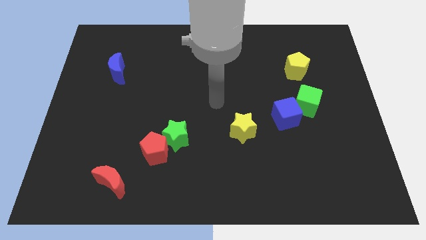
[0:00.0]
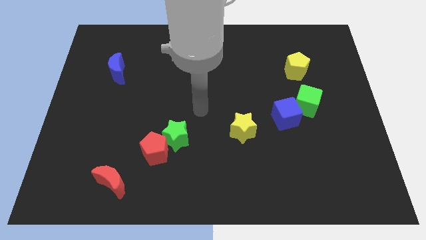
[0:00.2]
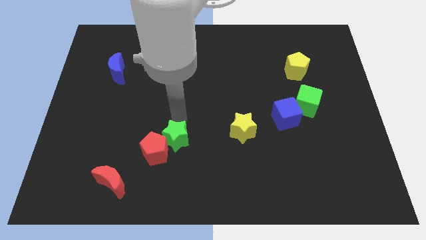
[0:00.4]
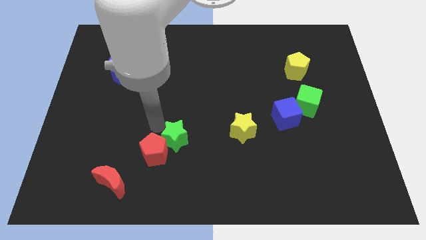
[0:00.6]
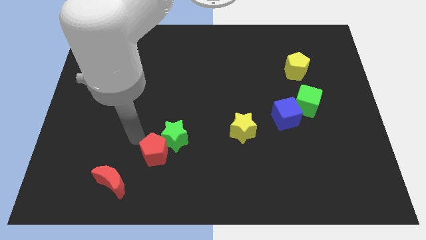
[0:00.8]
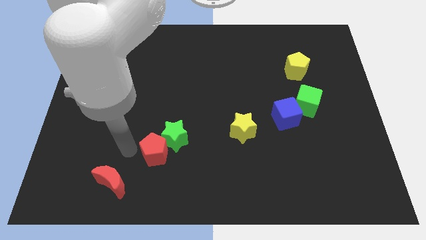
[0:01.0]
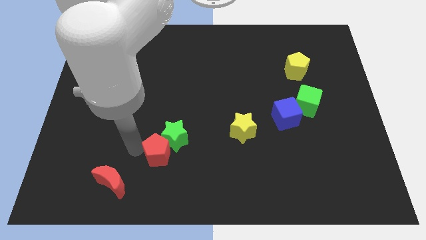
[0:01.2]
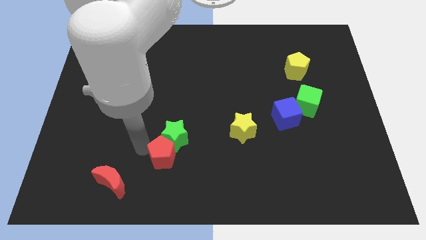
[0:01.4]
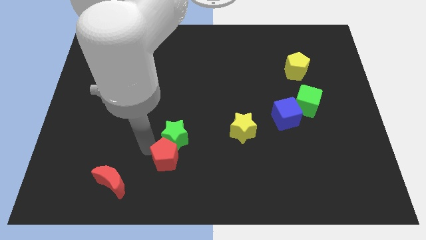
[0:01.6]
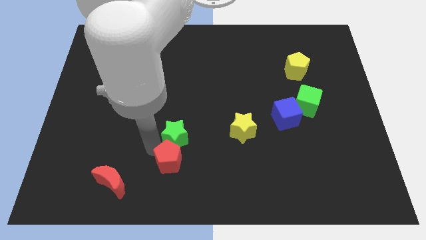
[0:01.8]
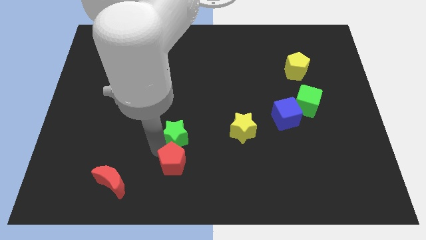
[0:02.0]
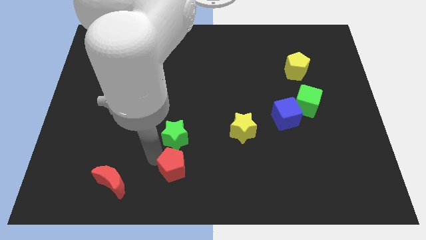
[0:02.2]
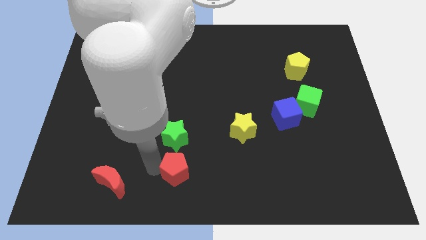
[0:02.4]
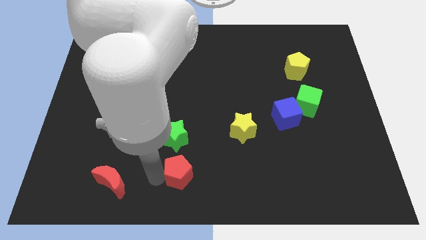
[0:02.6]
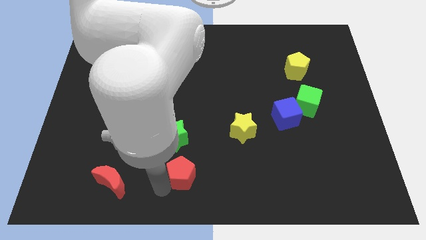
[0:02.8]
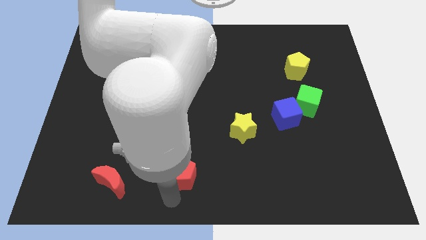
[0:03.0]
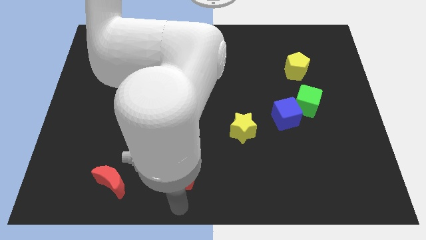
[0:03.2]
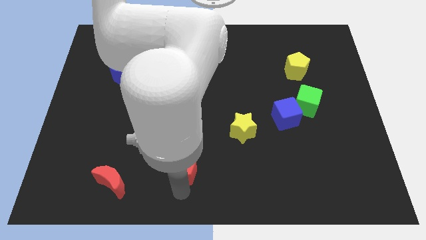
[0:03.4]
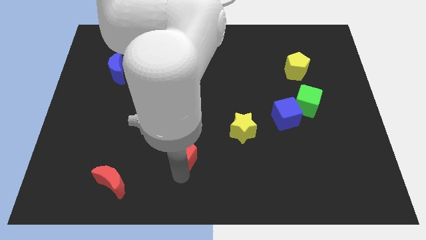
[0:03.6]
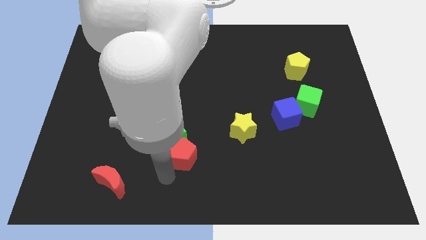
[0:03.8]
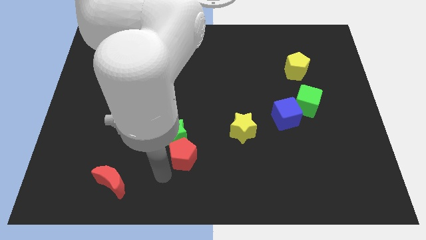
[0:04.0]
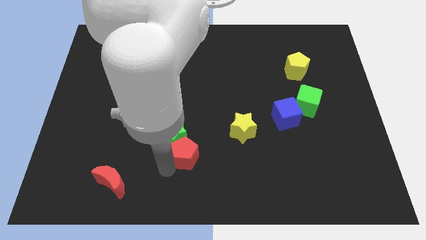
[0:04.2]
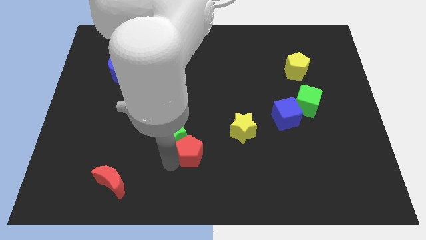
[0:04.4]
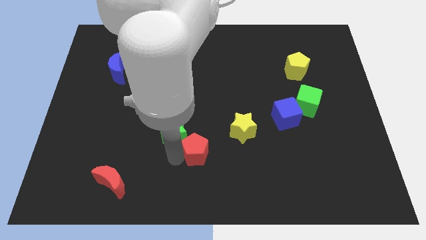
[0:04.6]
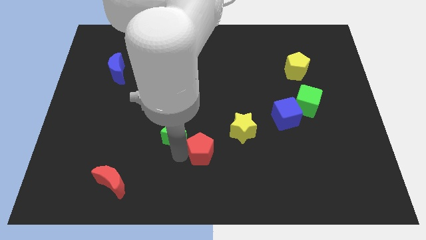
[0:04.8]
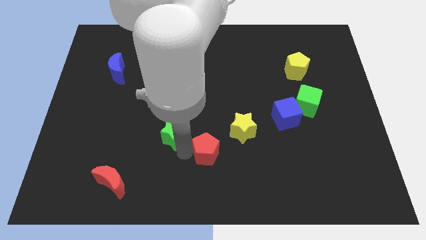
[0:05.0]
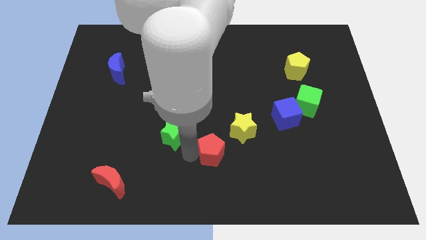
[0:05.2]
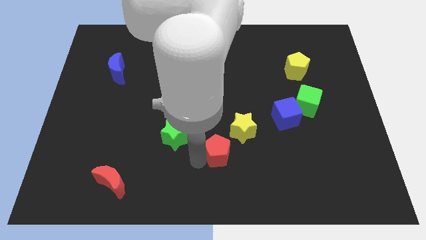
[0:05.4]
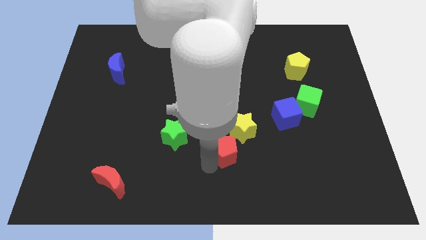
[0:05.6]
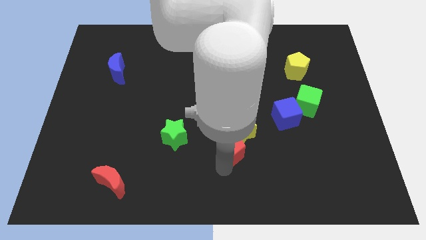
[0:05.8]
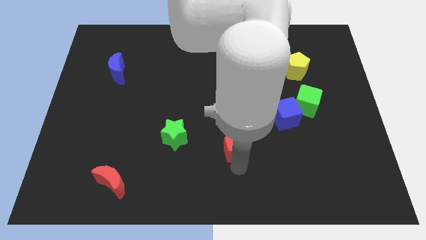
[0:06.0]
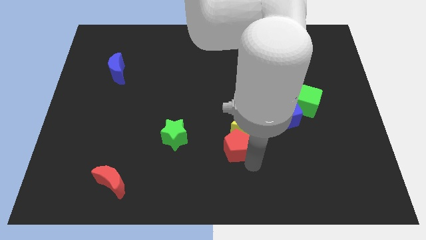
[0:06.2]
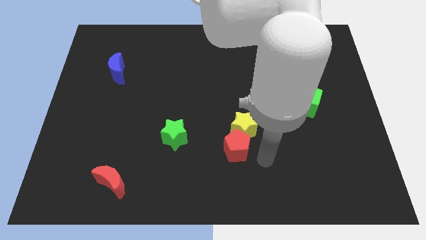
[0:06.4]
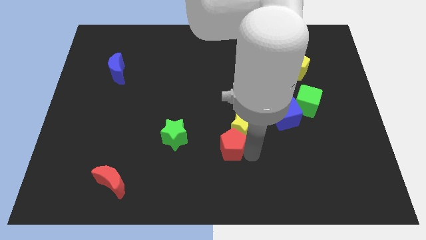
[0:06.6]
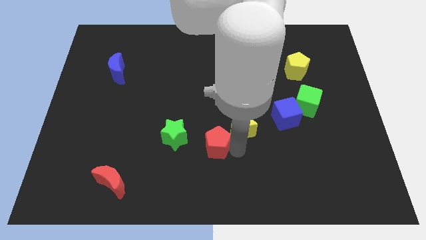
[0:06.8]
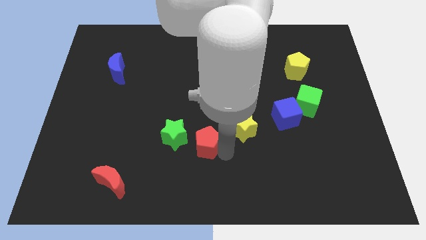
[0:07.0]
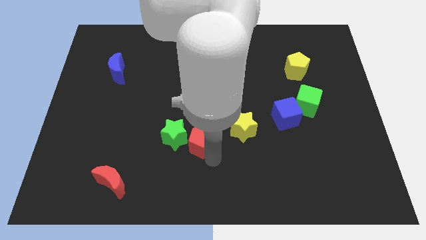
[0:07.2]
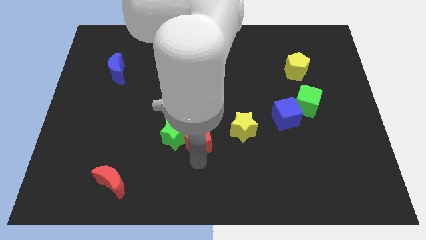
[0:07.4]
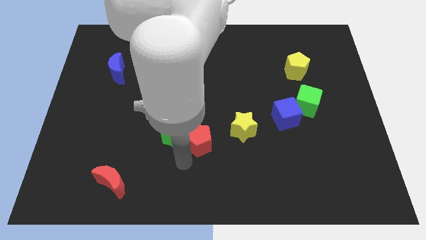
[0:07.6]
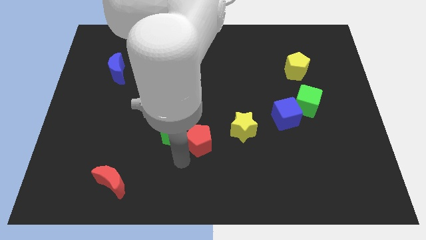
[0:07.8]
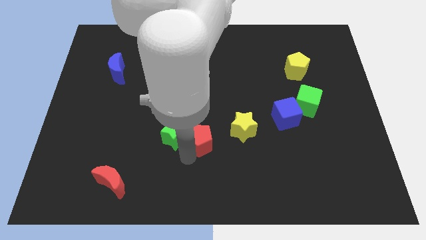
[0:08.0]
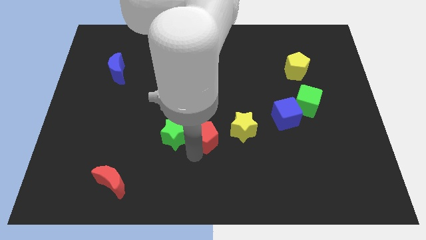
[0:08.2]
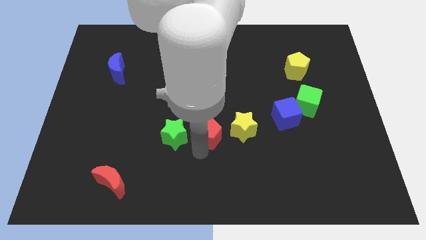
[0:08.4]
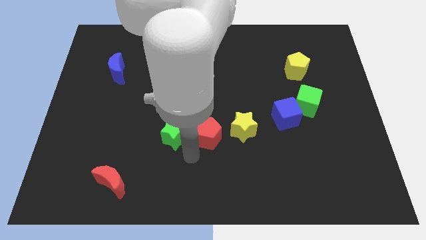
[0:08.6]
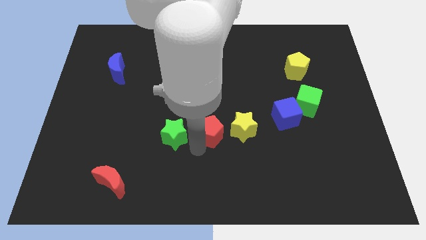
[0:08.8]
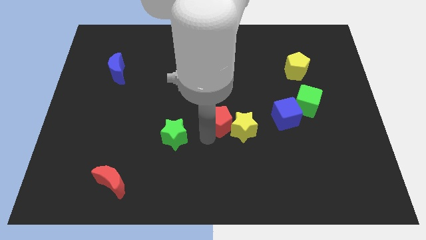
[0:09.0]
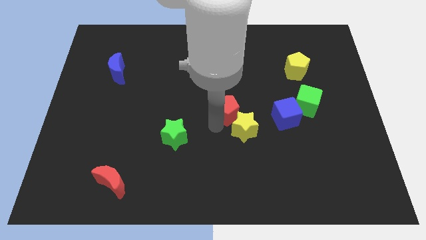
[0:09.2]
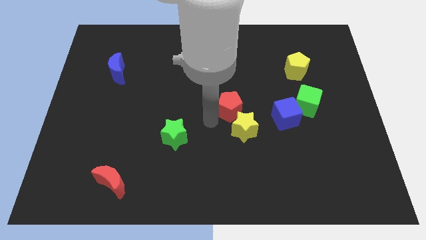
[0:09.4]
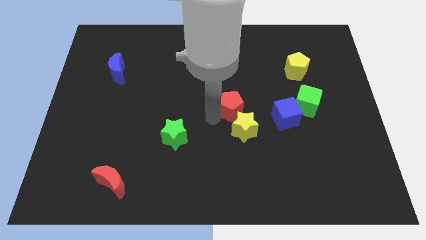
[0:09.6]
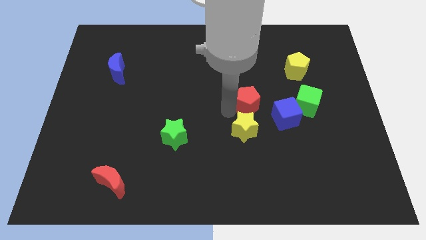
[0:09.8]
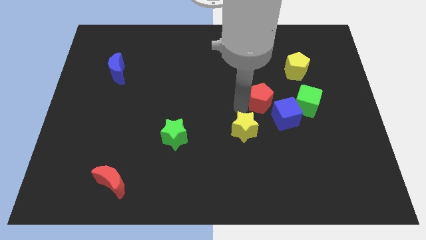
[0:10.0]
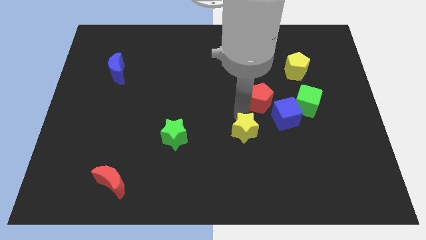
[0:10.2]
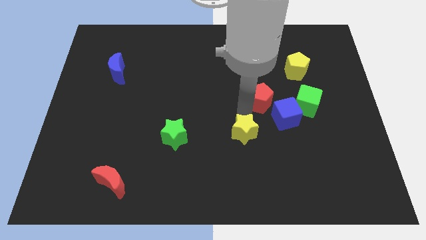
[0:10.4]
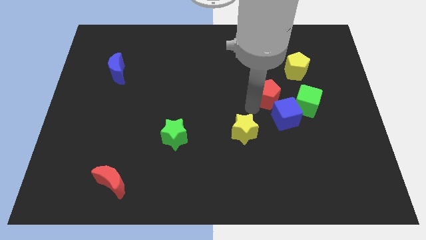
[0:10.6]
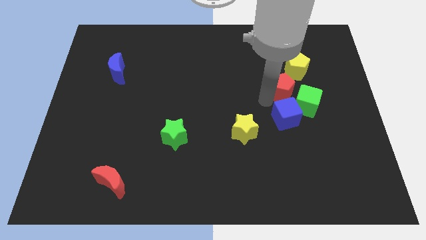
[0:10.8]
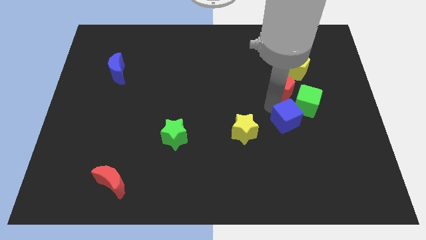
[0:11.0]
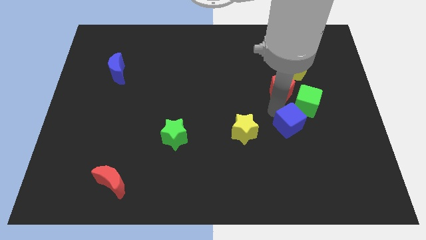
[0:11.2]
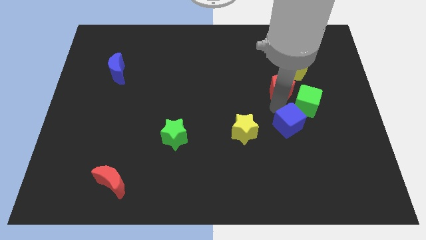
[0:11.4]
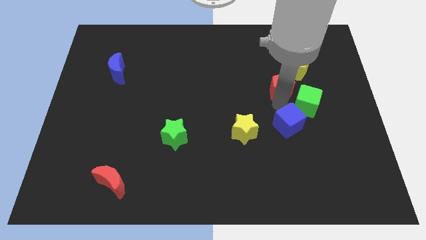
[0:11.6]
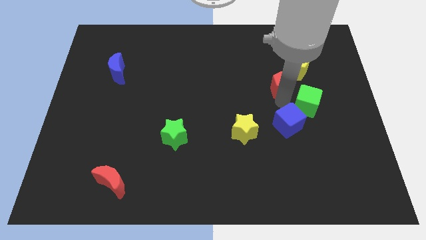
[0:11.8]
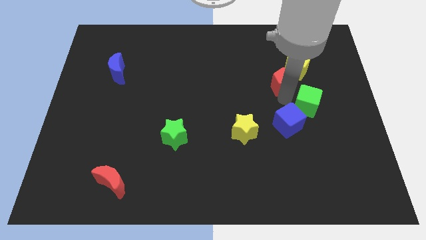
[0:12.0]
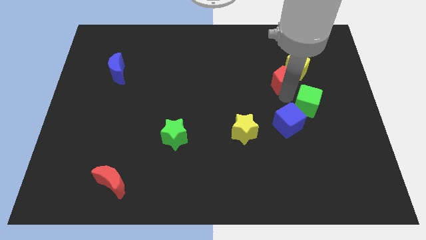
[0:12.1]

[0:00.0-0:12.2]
slide the red pentagon close to the yellow pentagon

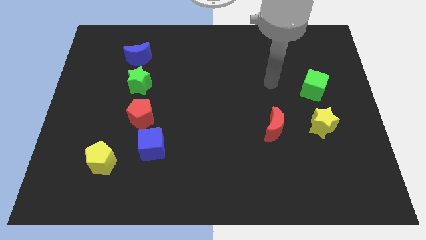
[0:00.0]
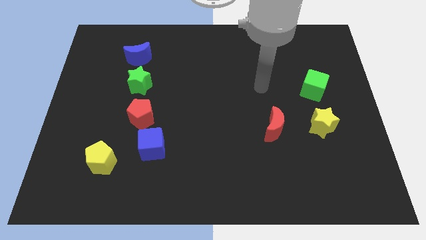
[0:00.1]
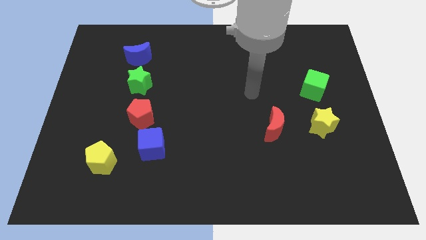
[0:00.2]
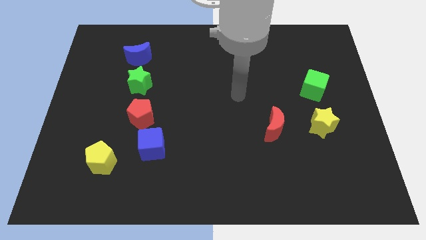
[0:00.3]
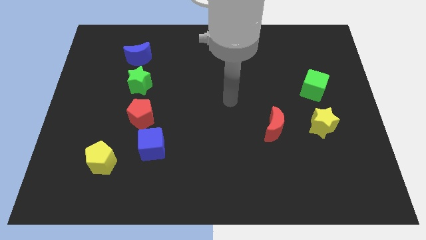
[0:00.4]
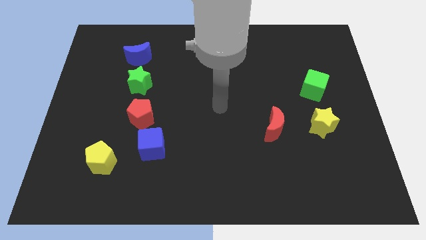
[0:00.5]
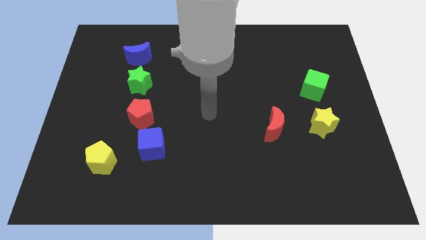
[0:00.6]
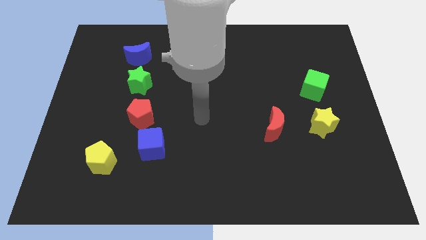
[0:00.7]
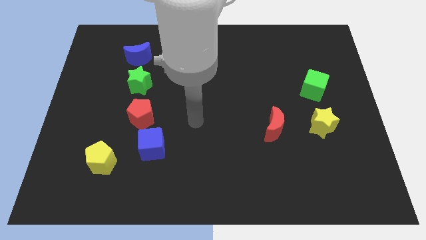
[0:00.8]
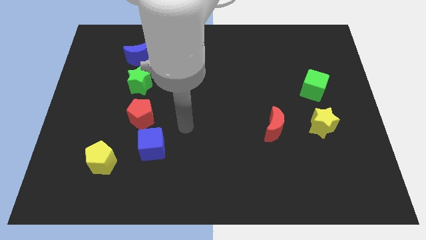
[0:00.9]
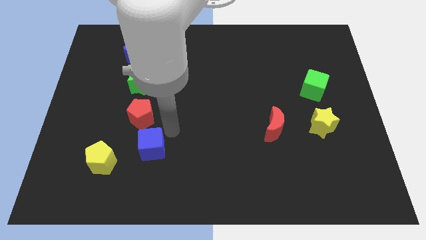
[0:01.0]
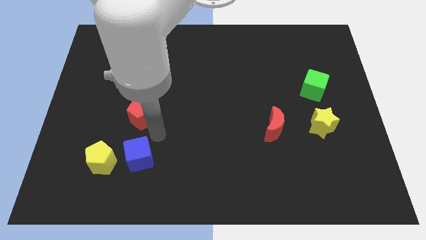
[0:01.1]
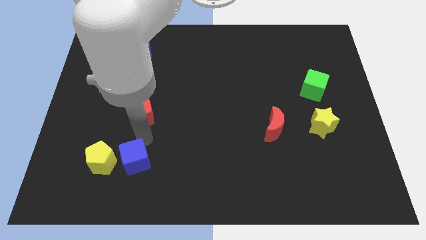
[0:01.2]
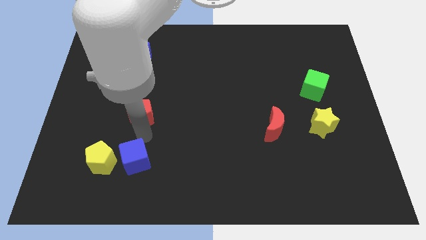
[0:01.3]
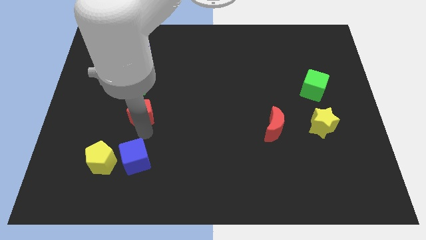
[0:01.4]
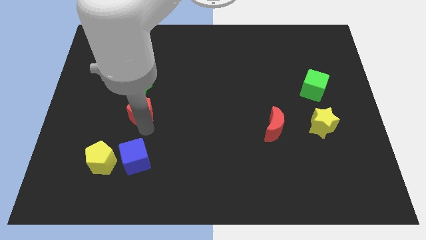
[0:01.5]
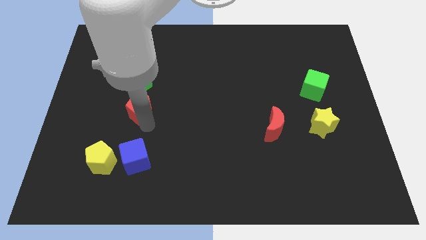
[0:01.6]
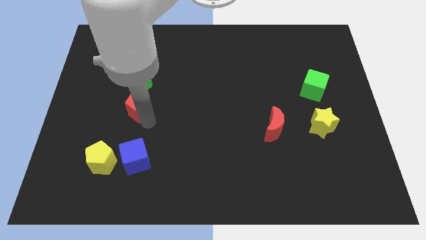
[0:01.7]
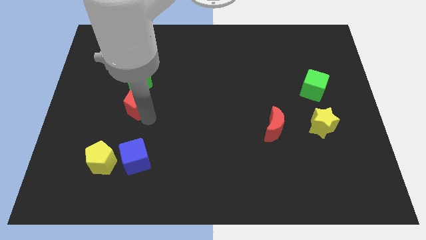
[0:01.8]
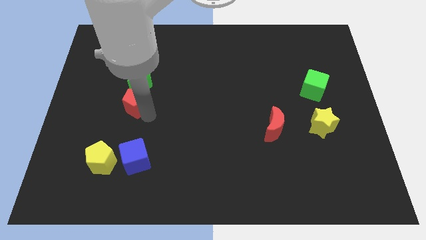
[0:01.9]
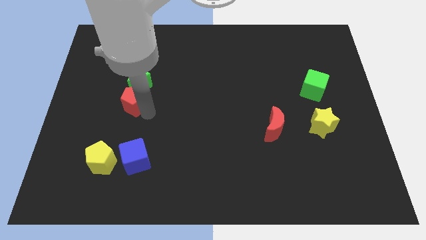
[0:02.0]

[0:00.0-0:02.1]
push the red pentagon close to the green star
